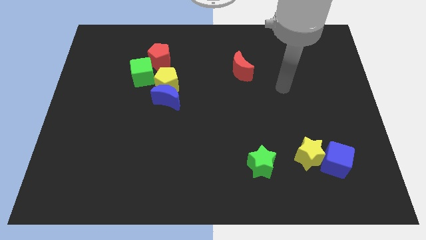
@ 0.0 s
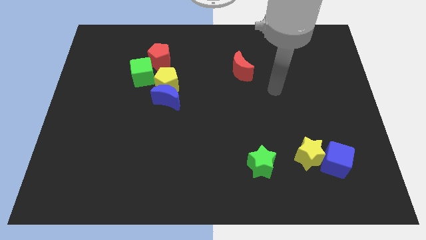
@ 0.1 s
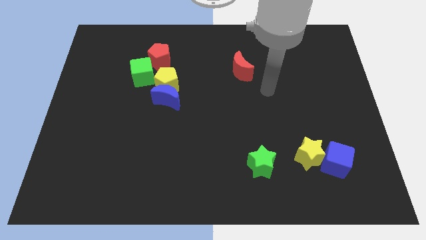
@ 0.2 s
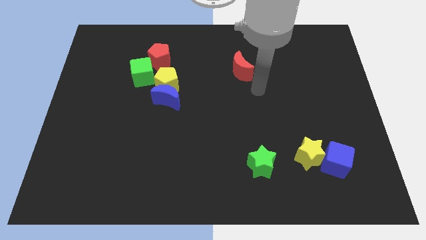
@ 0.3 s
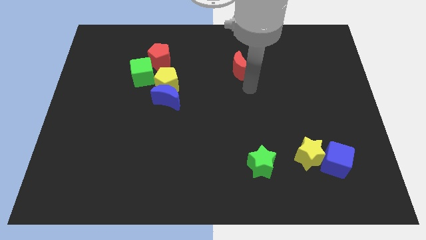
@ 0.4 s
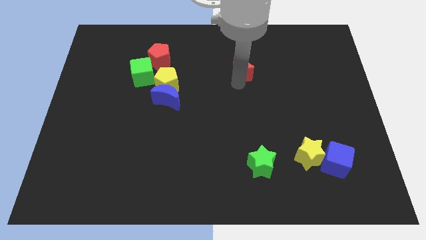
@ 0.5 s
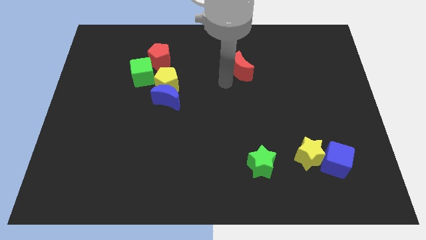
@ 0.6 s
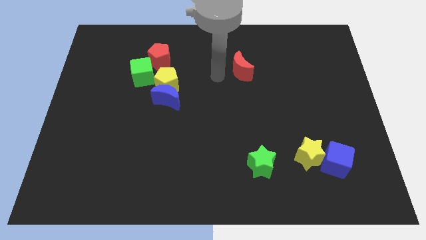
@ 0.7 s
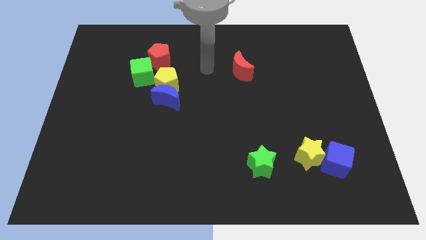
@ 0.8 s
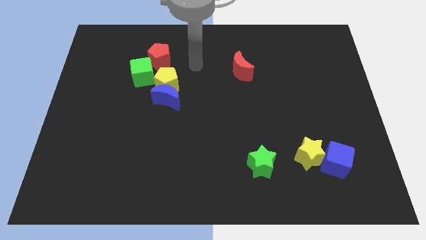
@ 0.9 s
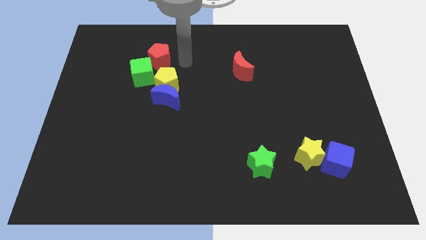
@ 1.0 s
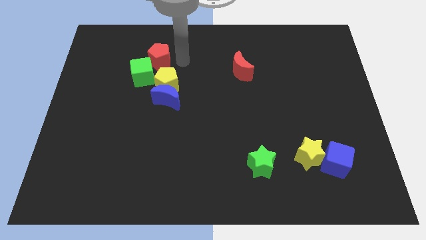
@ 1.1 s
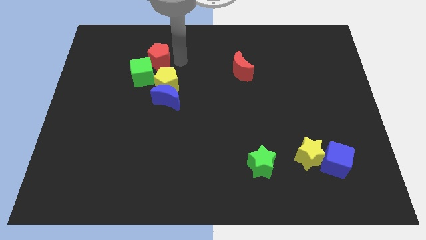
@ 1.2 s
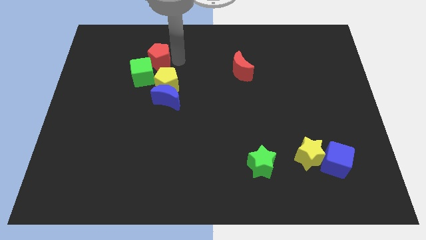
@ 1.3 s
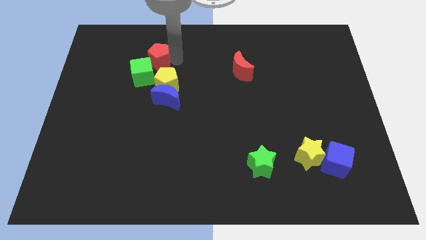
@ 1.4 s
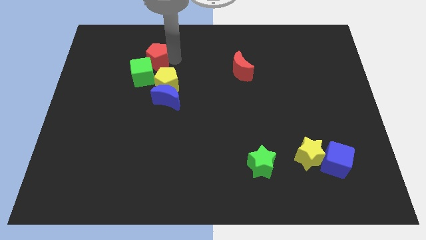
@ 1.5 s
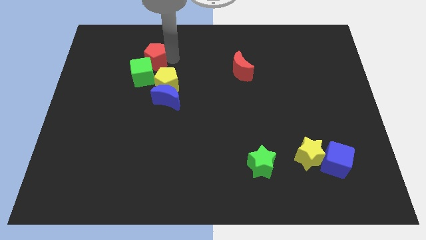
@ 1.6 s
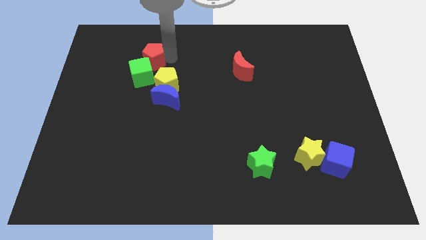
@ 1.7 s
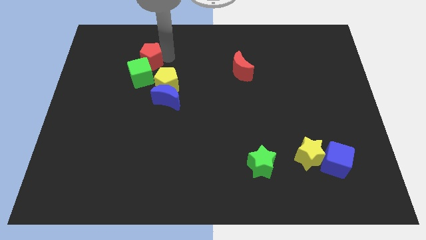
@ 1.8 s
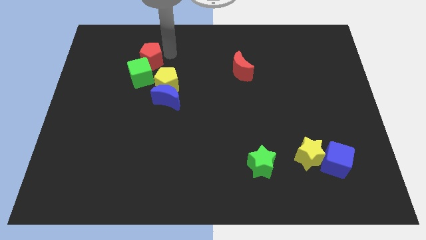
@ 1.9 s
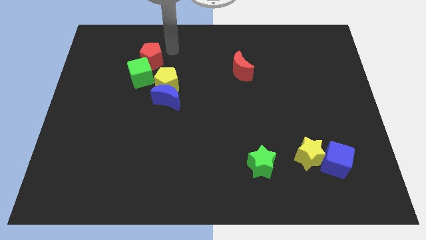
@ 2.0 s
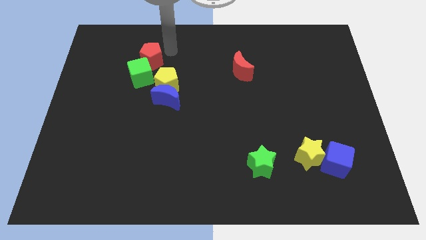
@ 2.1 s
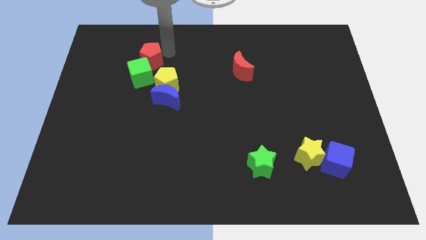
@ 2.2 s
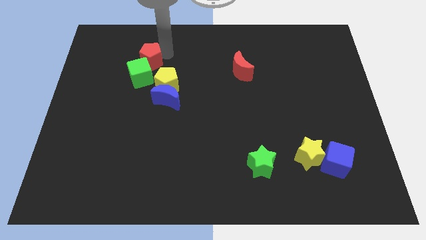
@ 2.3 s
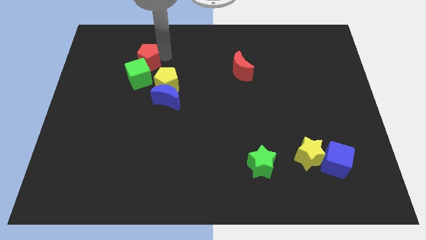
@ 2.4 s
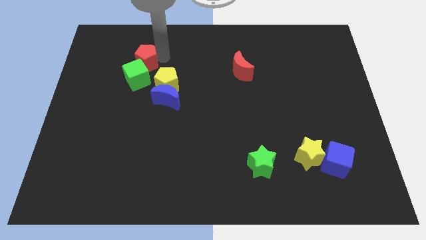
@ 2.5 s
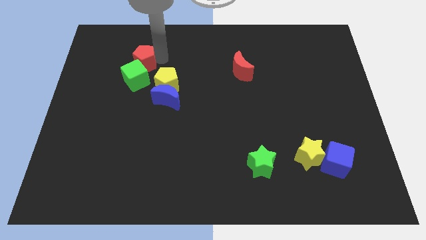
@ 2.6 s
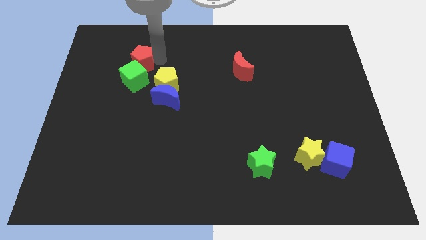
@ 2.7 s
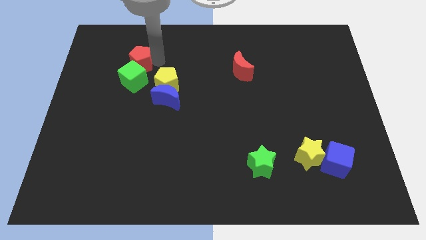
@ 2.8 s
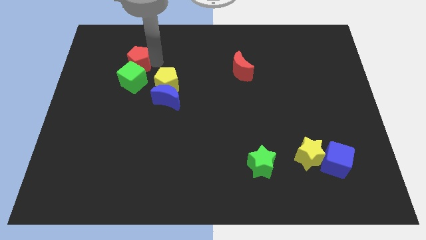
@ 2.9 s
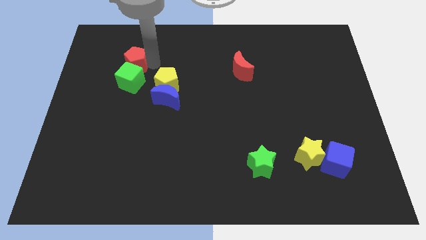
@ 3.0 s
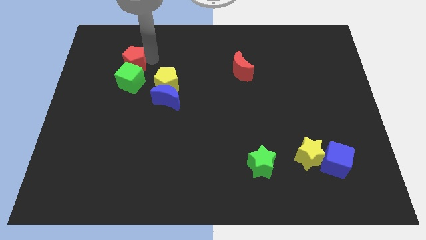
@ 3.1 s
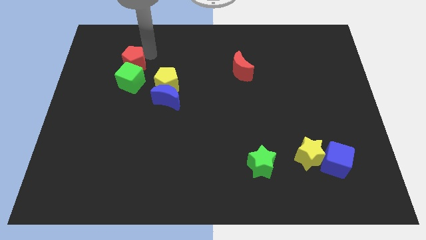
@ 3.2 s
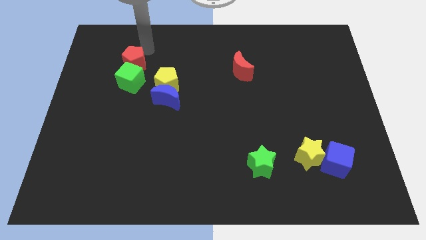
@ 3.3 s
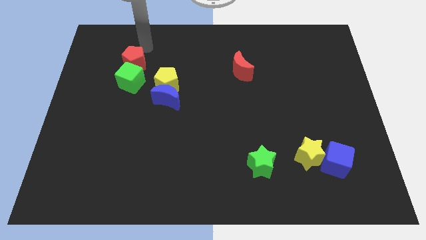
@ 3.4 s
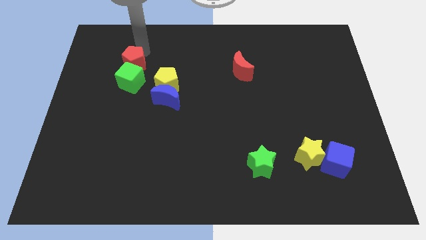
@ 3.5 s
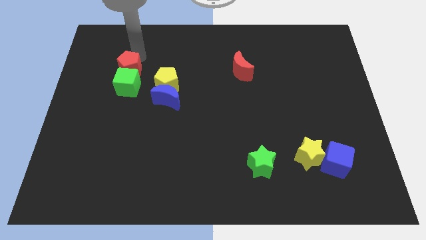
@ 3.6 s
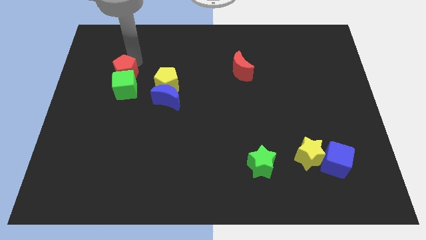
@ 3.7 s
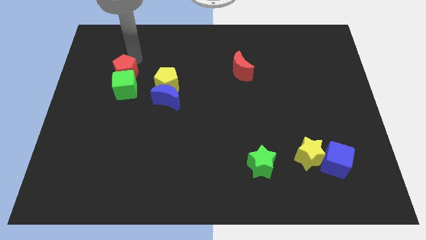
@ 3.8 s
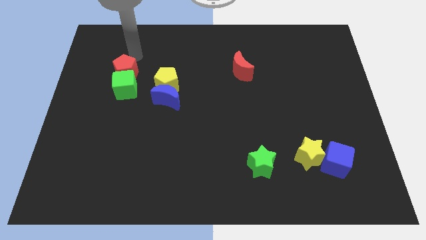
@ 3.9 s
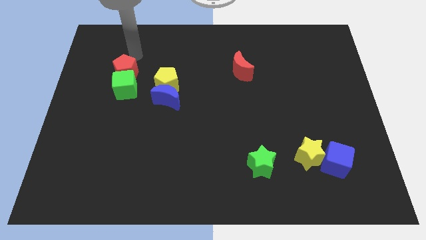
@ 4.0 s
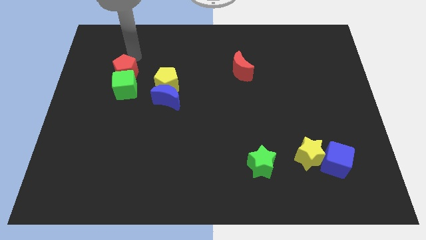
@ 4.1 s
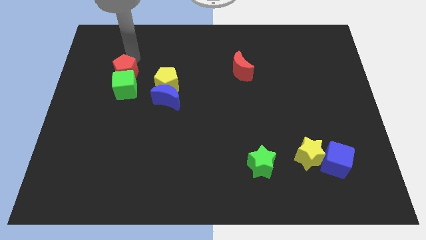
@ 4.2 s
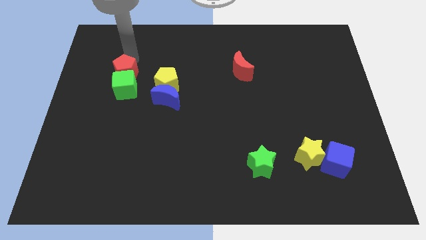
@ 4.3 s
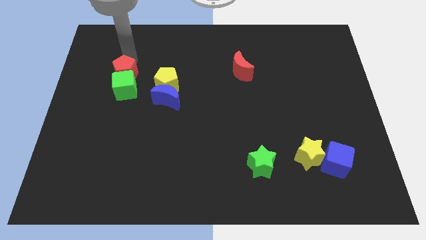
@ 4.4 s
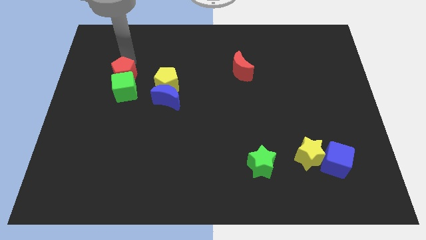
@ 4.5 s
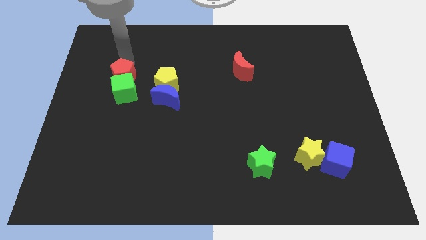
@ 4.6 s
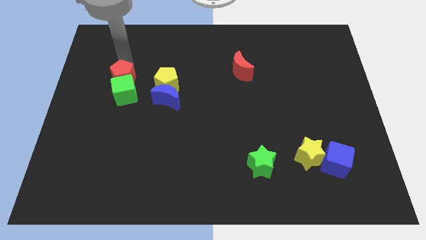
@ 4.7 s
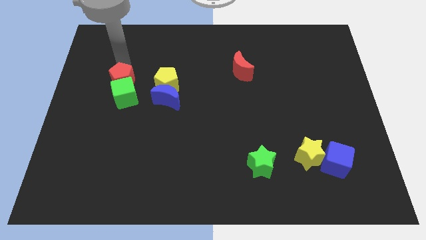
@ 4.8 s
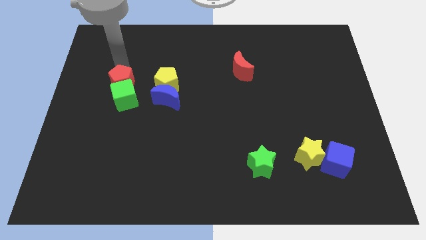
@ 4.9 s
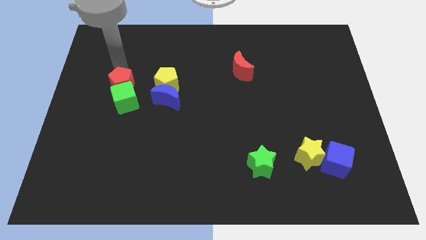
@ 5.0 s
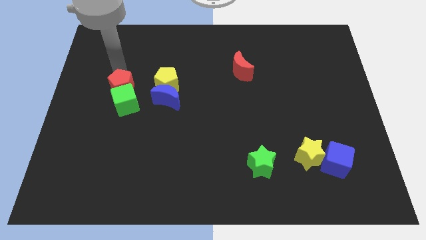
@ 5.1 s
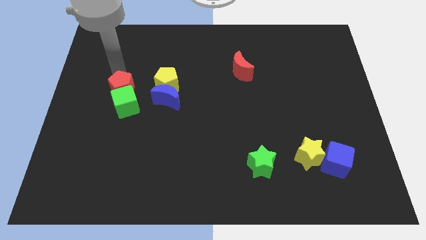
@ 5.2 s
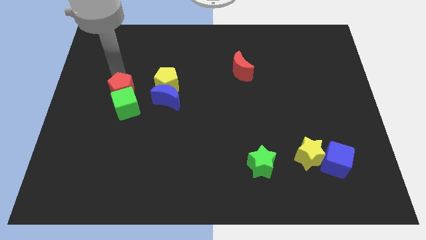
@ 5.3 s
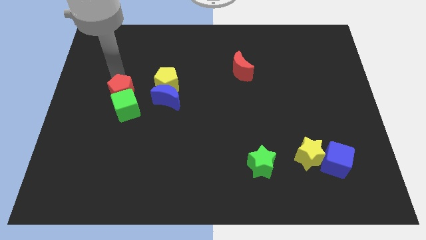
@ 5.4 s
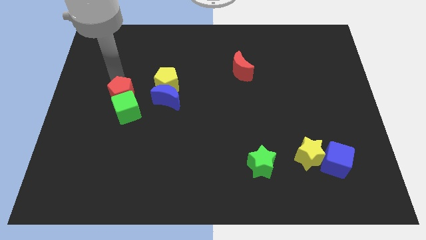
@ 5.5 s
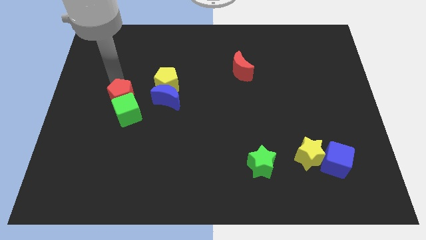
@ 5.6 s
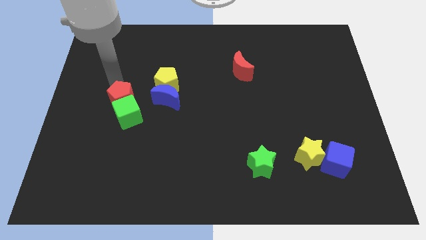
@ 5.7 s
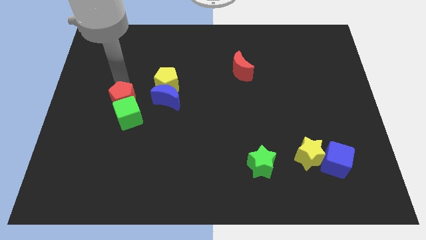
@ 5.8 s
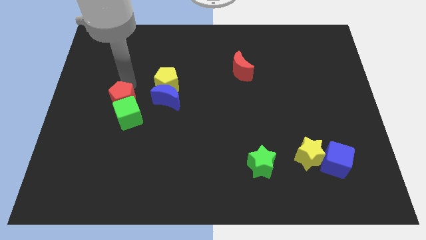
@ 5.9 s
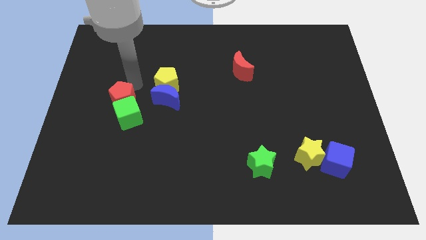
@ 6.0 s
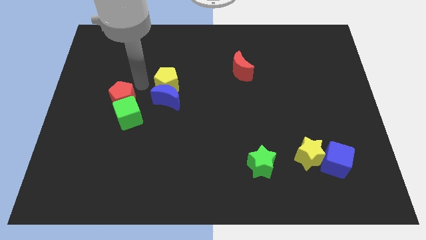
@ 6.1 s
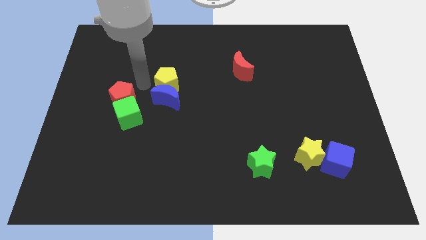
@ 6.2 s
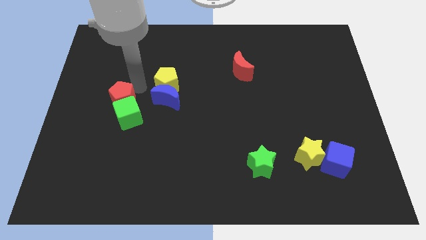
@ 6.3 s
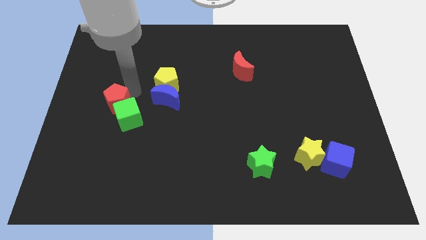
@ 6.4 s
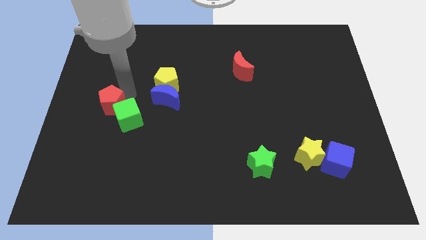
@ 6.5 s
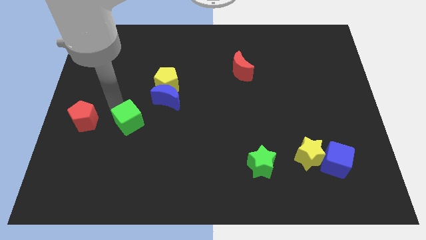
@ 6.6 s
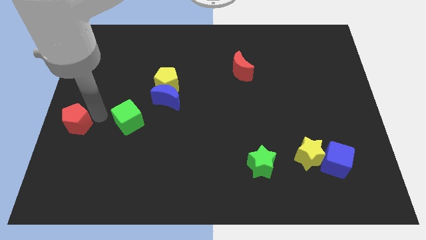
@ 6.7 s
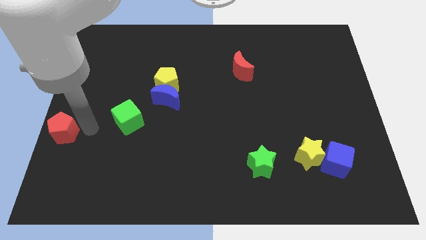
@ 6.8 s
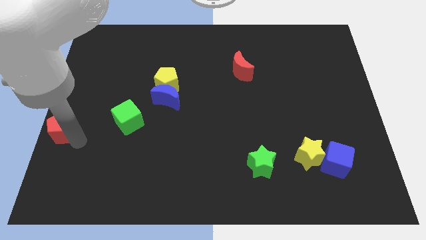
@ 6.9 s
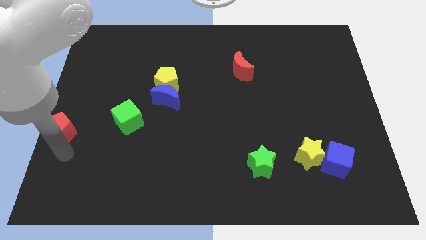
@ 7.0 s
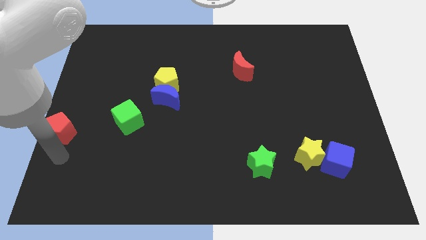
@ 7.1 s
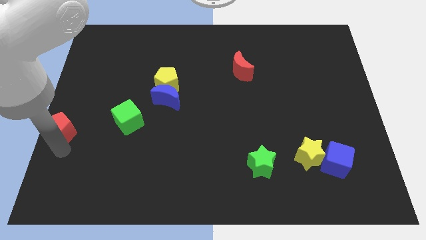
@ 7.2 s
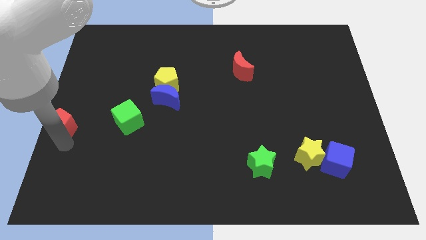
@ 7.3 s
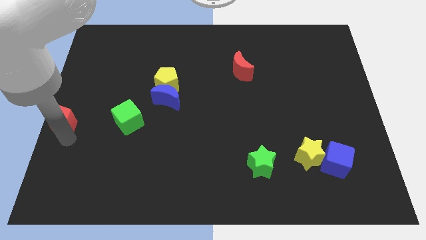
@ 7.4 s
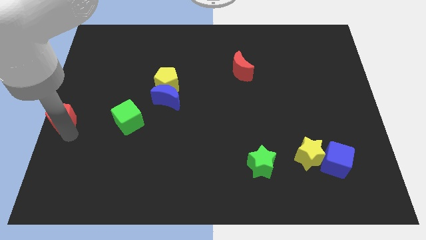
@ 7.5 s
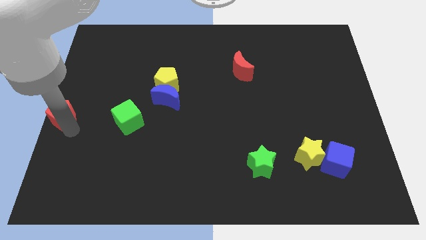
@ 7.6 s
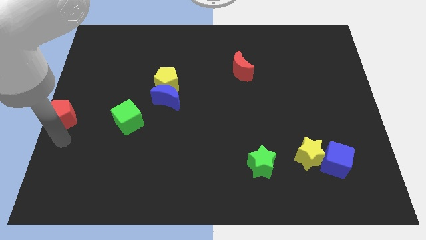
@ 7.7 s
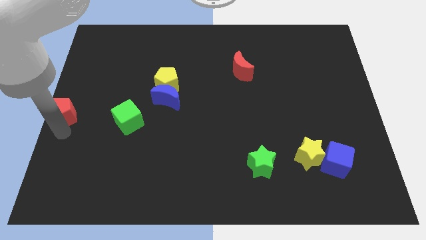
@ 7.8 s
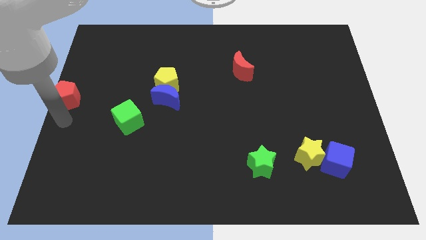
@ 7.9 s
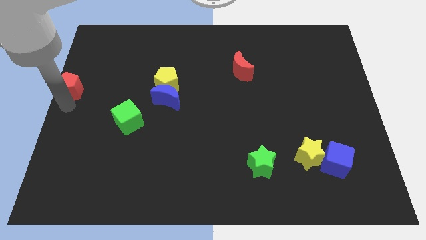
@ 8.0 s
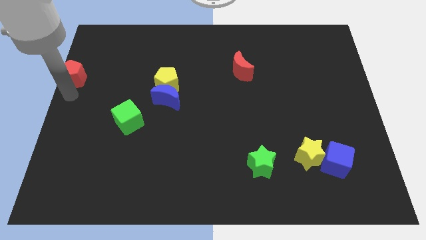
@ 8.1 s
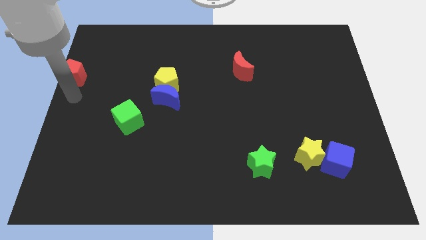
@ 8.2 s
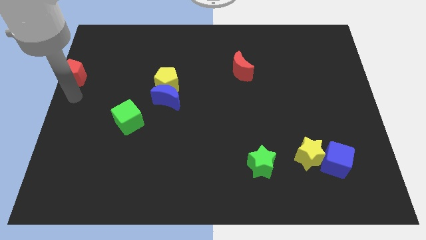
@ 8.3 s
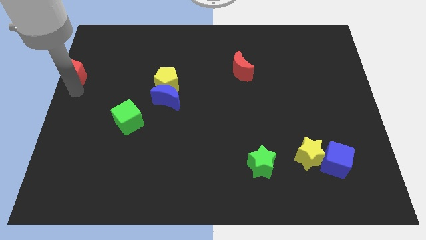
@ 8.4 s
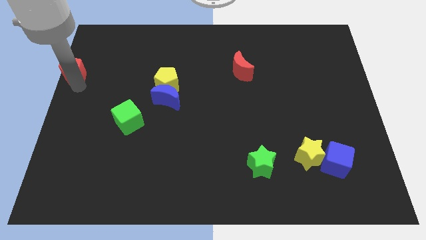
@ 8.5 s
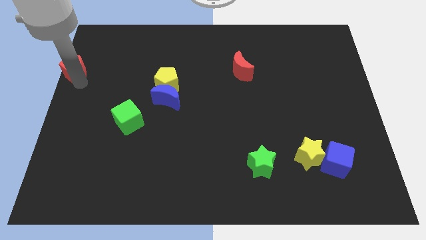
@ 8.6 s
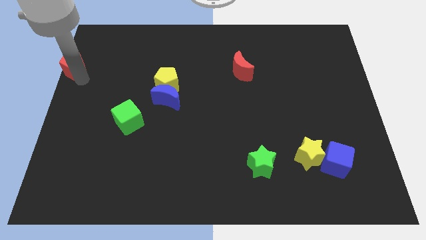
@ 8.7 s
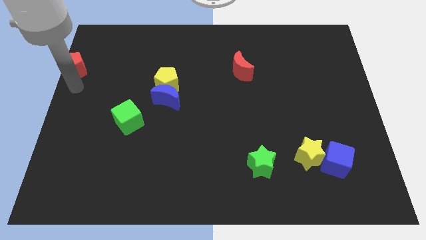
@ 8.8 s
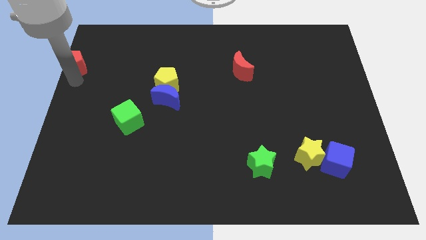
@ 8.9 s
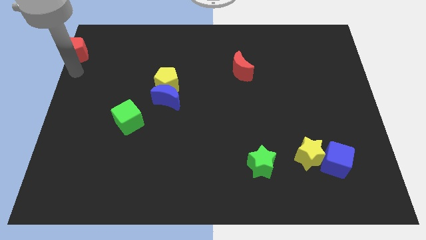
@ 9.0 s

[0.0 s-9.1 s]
put the red pentagon to the upper left corner
